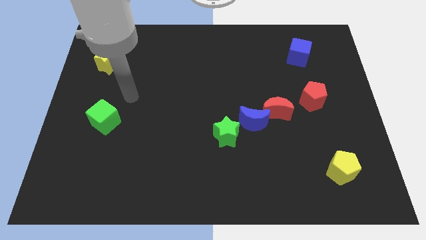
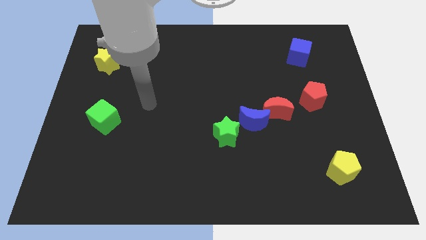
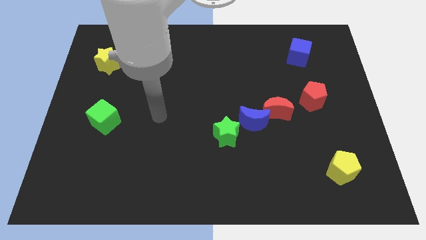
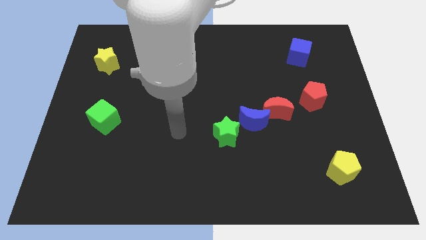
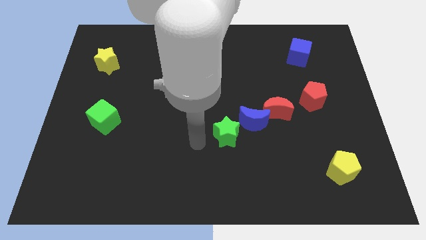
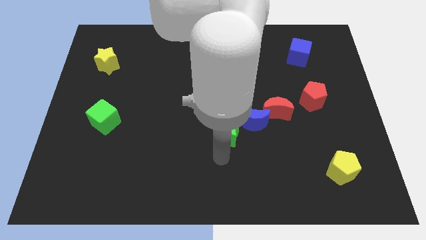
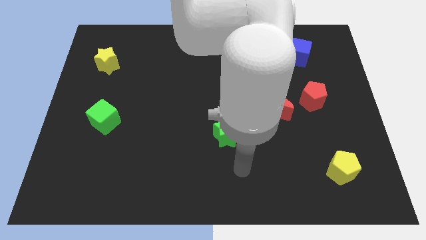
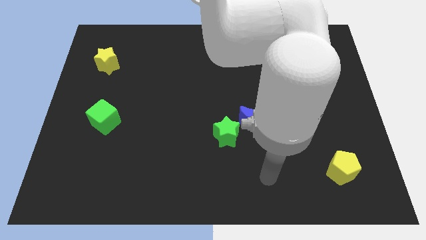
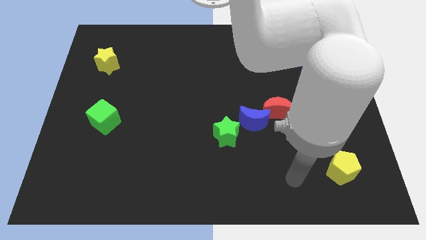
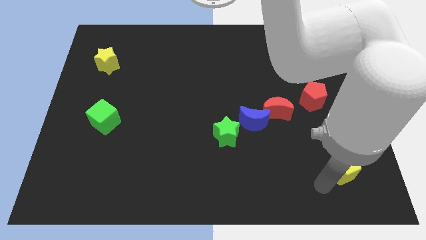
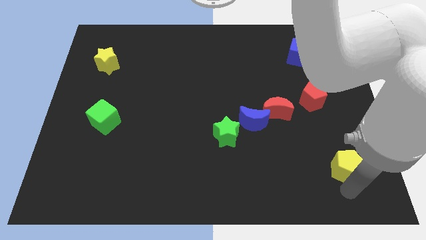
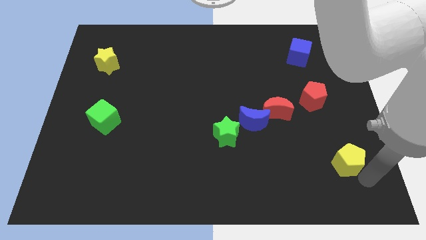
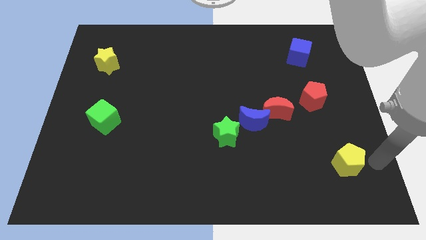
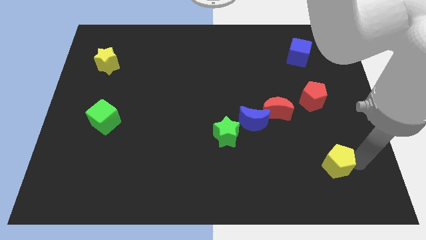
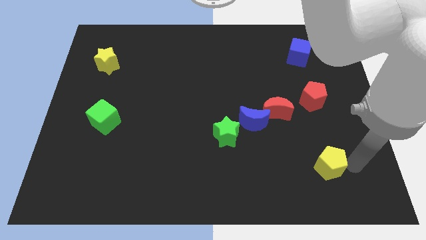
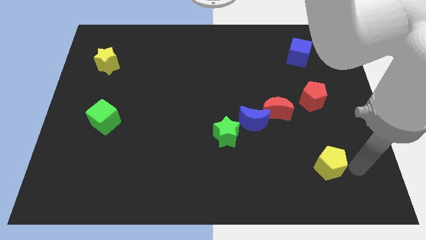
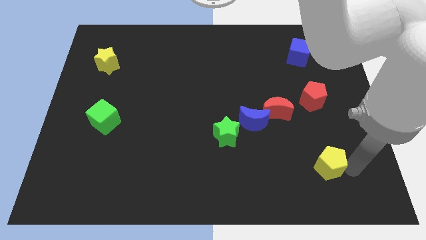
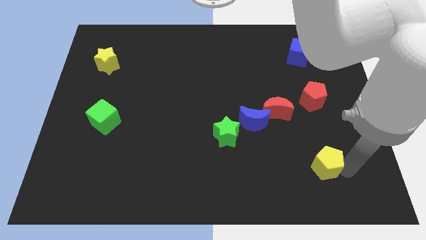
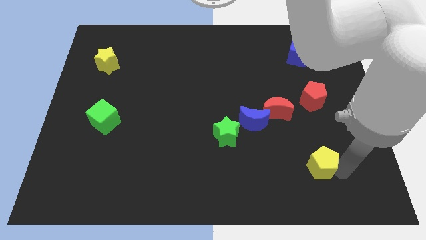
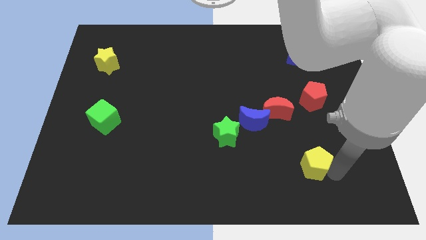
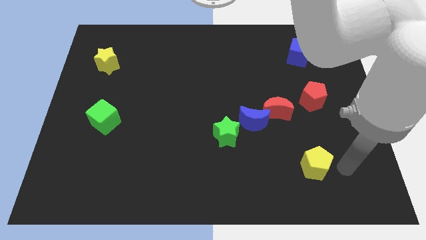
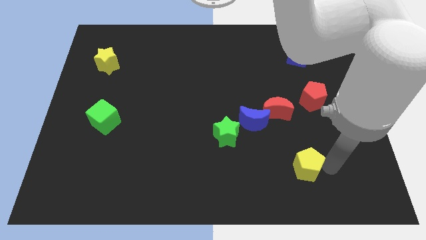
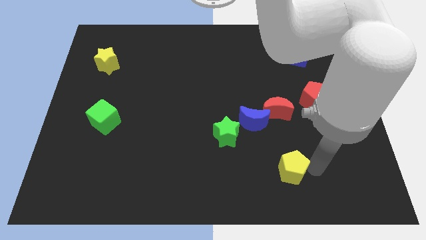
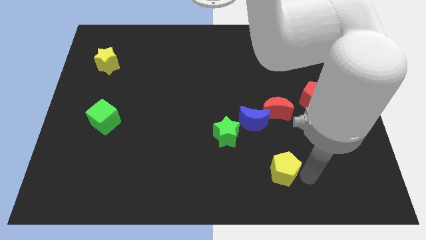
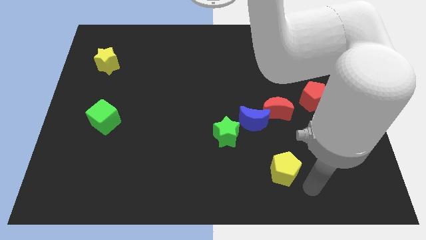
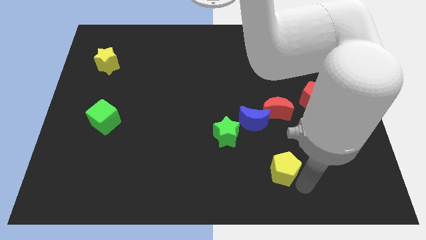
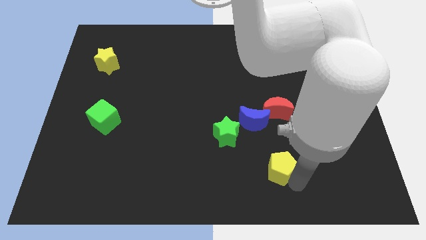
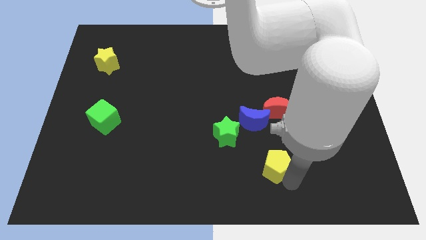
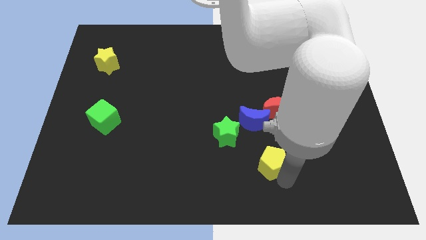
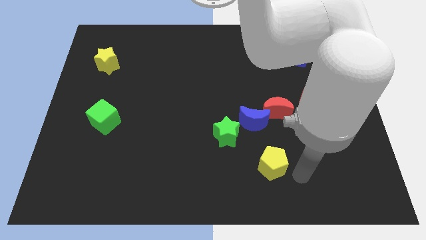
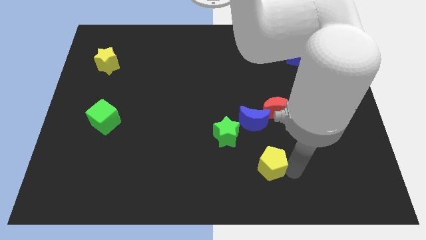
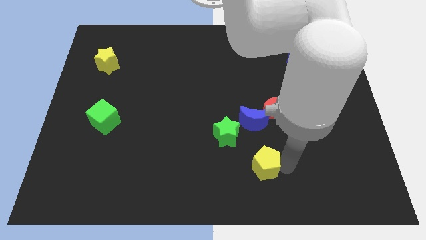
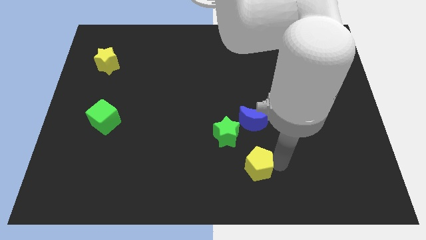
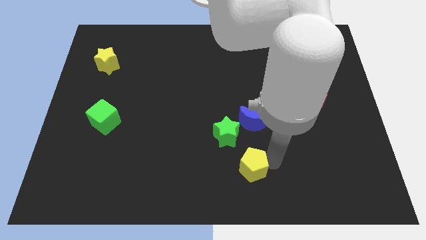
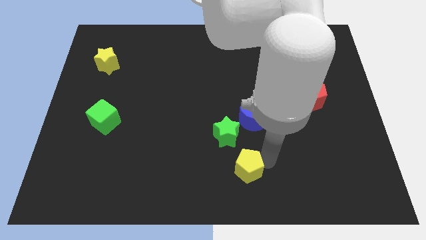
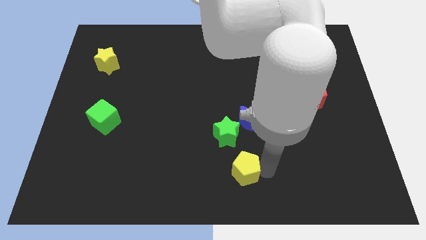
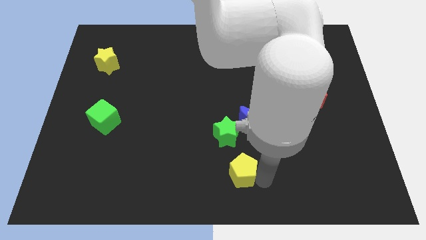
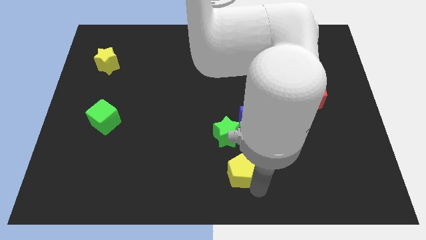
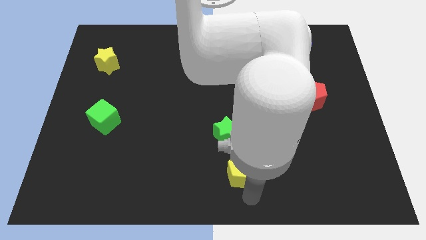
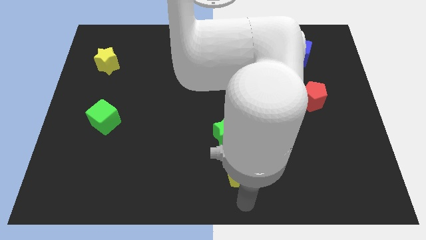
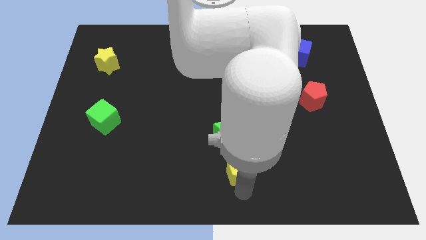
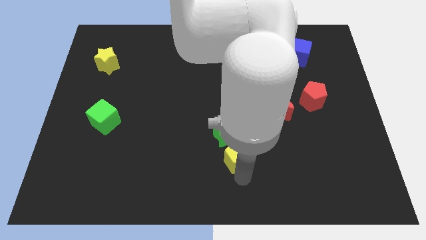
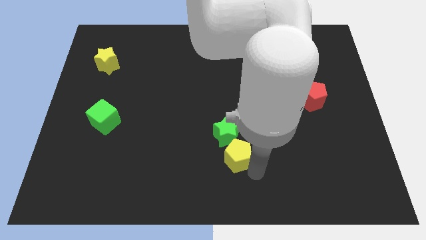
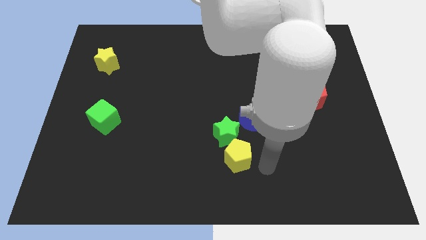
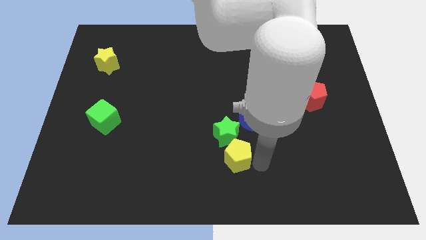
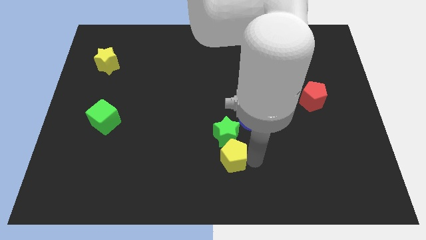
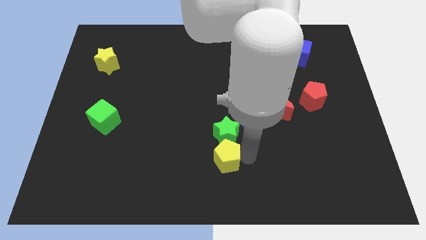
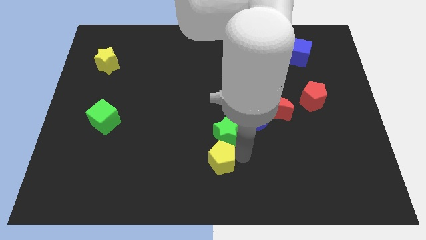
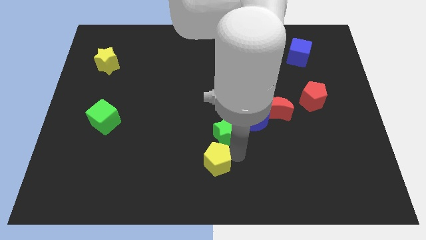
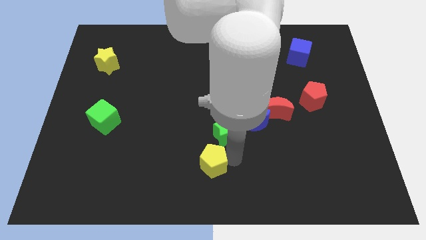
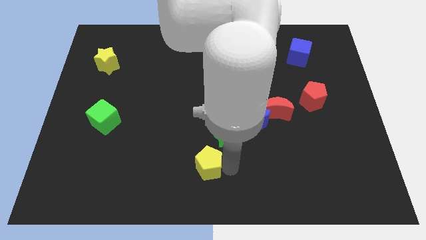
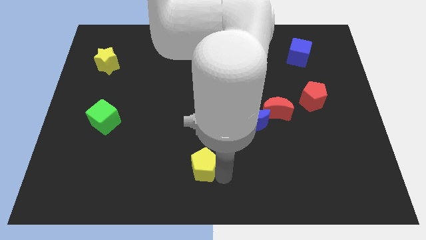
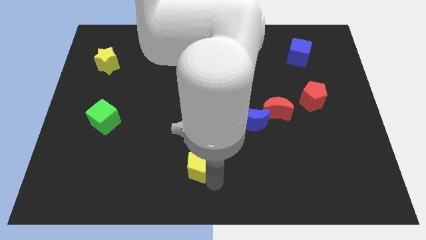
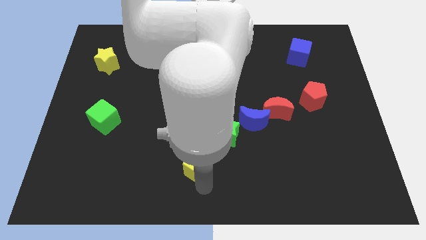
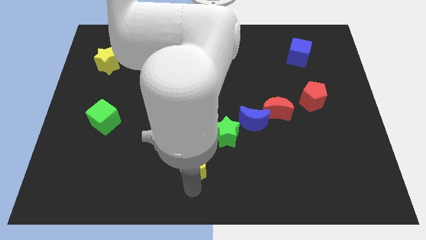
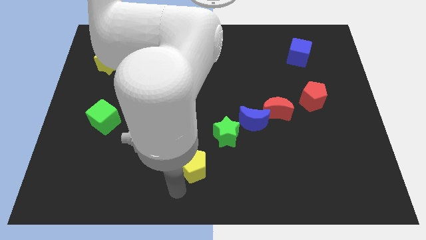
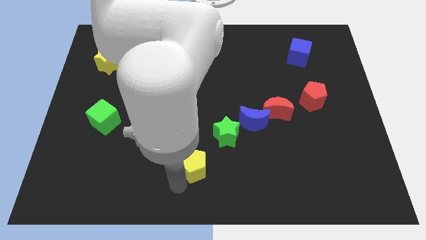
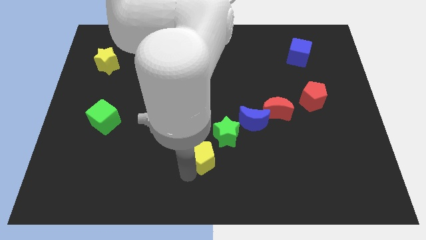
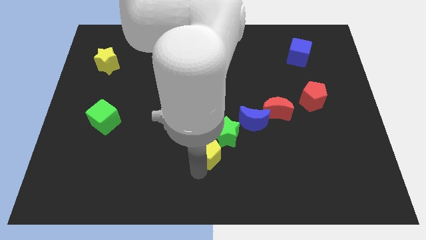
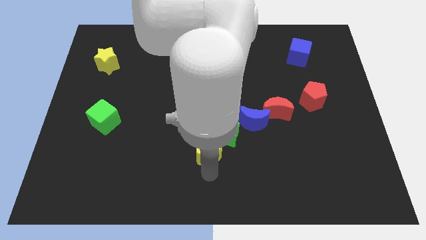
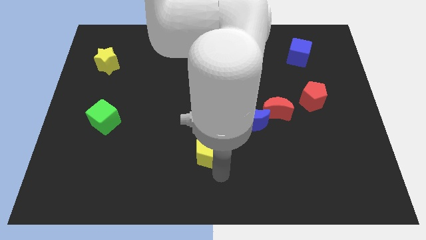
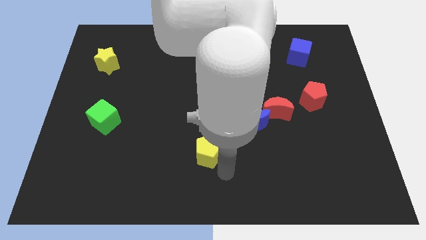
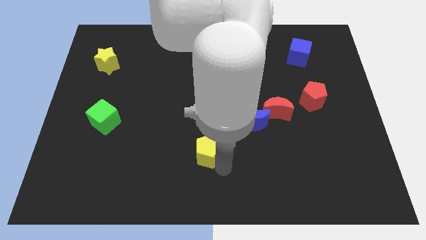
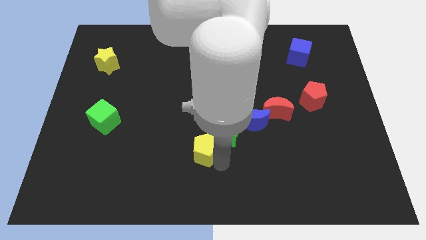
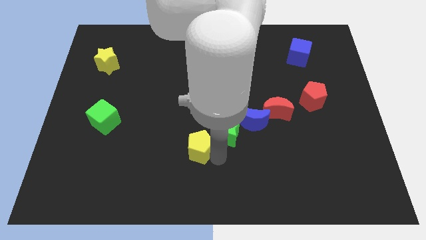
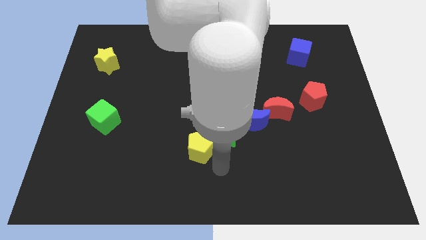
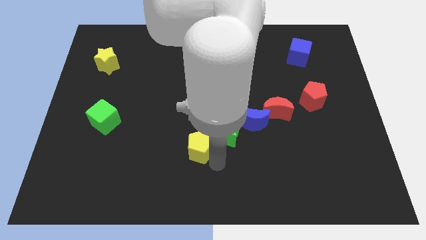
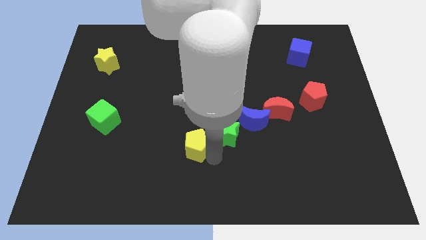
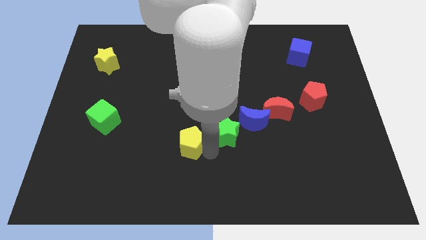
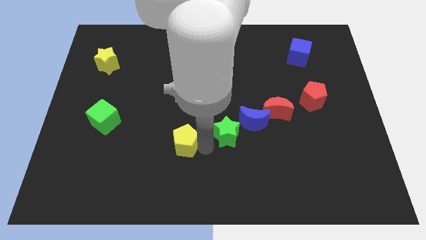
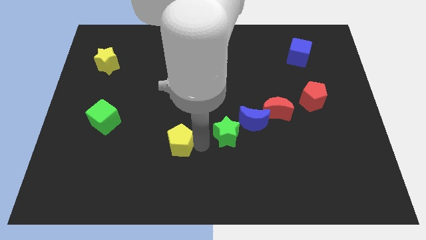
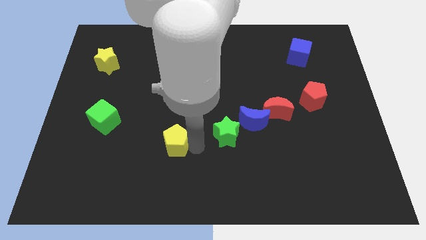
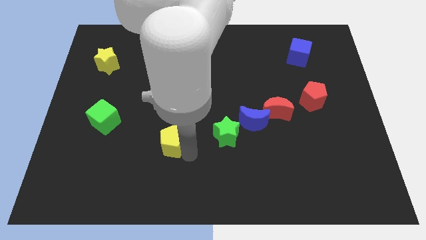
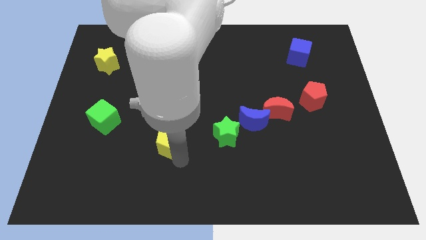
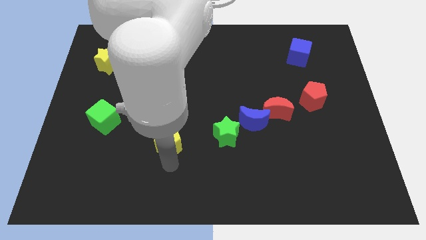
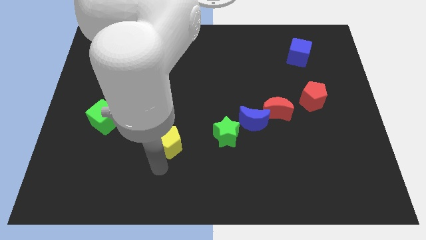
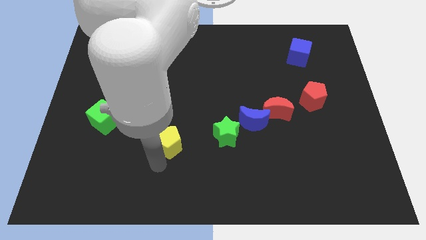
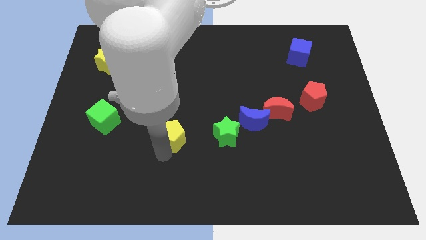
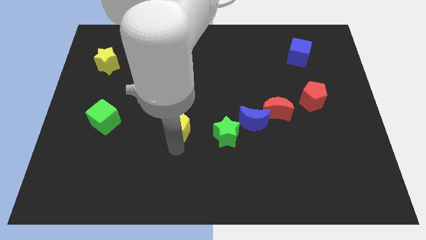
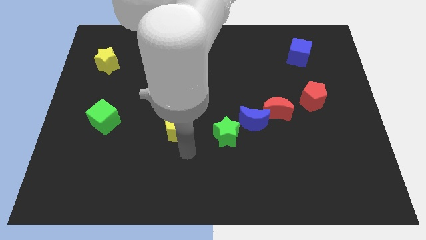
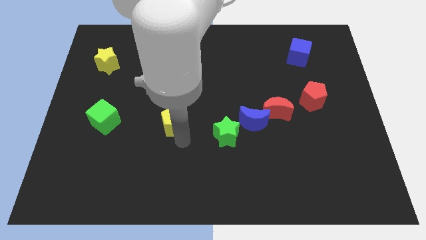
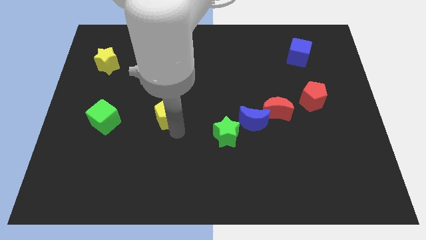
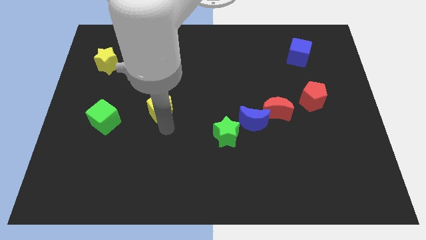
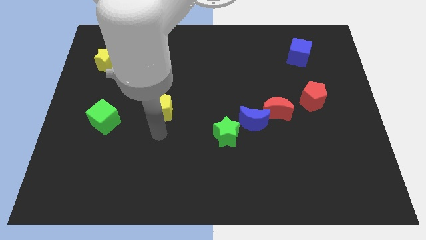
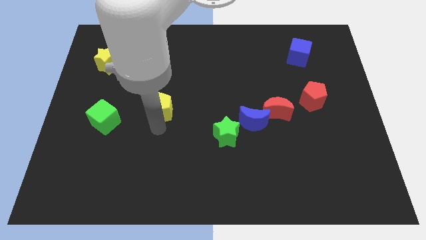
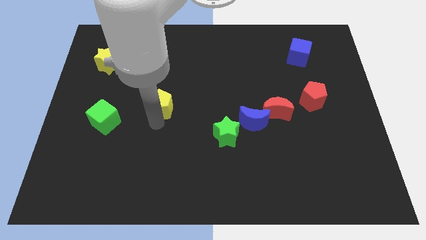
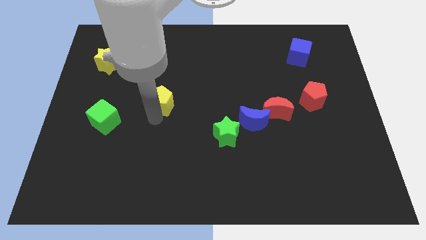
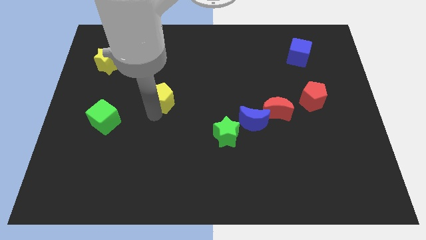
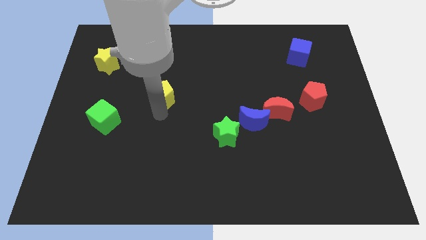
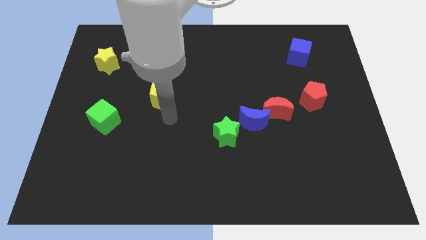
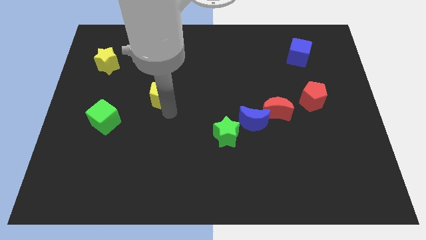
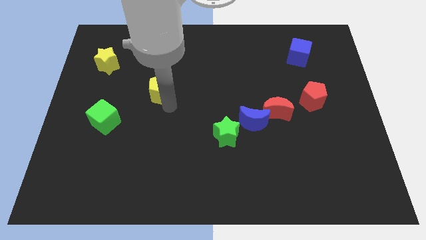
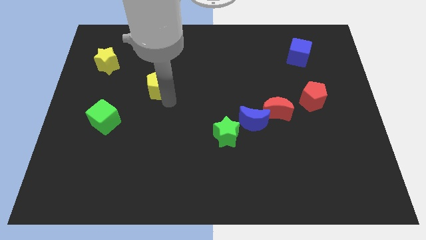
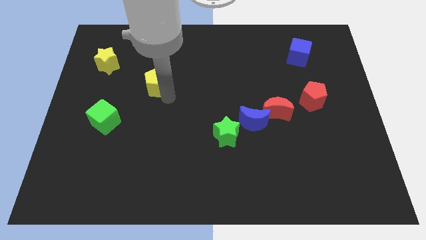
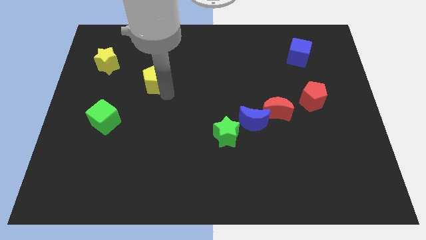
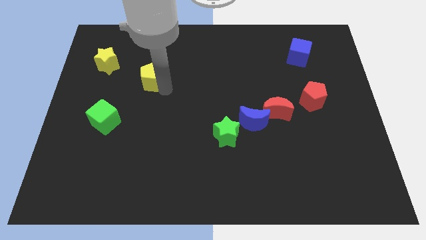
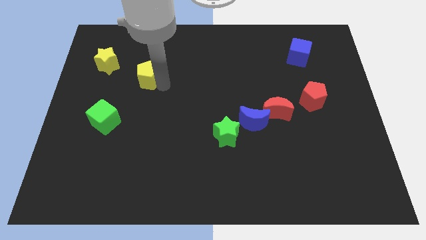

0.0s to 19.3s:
move the yellow pentagon just right of the yellow star
